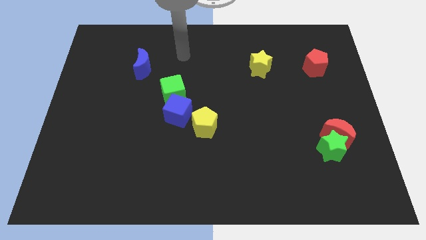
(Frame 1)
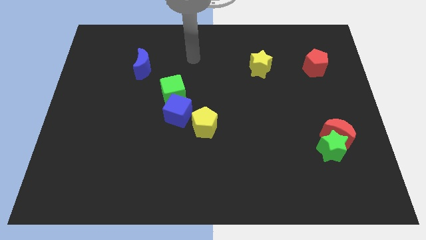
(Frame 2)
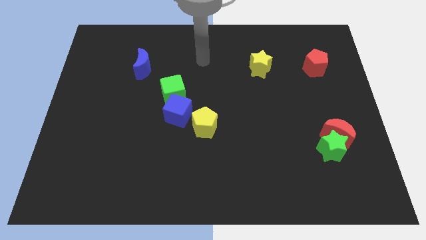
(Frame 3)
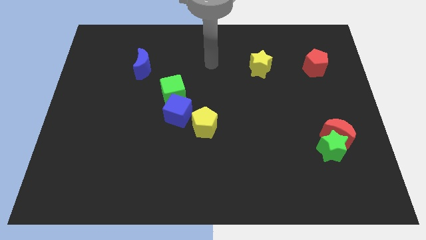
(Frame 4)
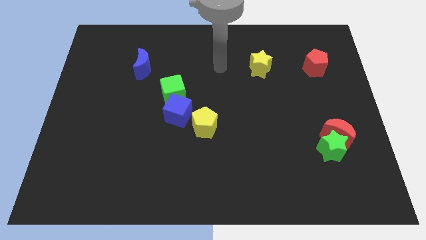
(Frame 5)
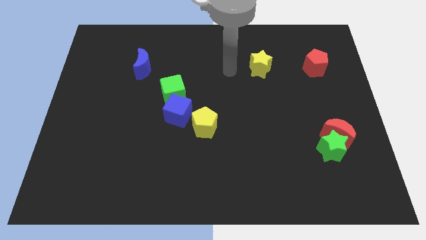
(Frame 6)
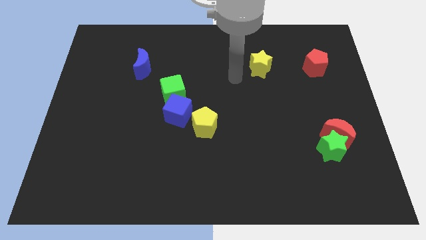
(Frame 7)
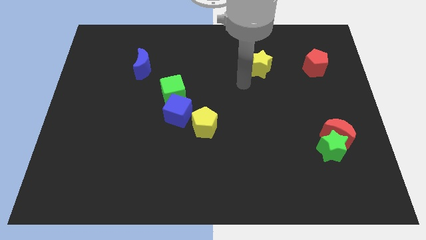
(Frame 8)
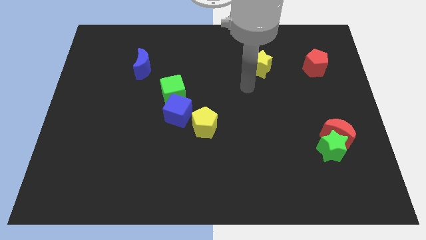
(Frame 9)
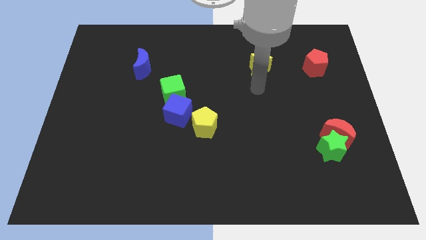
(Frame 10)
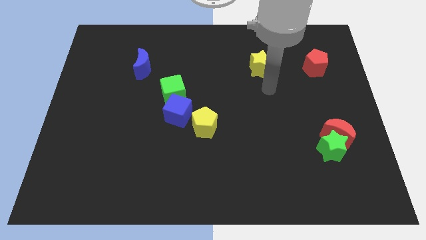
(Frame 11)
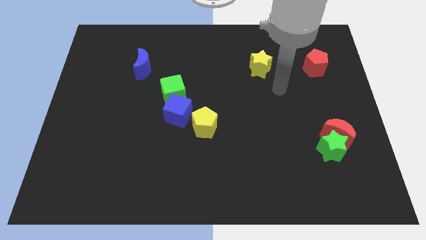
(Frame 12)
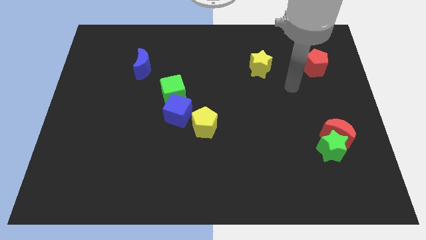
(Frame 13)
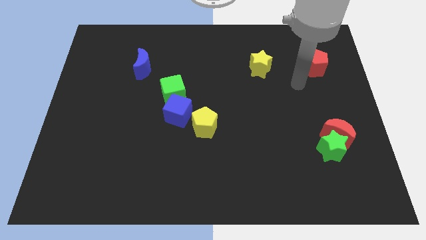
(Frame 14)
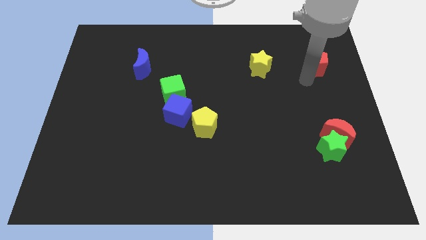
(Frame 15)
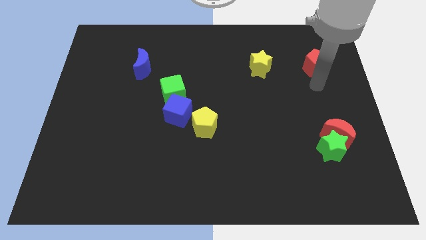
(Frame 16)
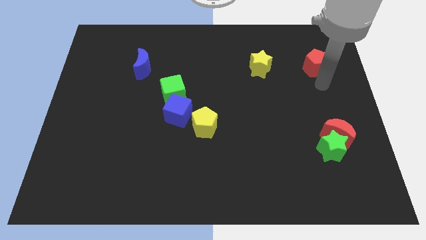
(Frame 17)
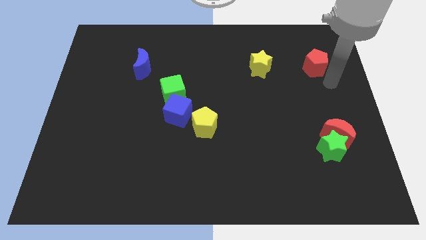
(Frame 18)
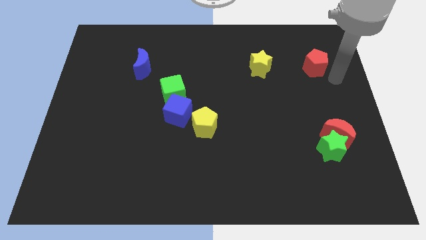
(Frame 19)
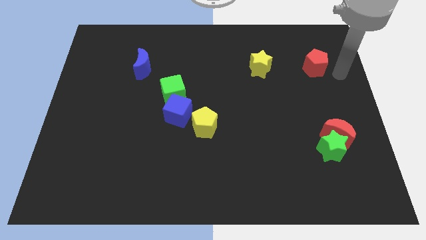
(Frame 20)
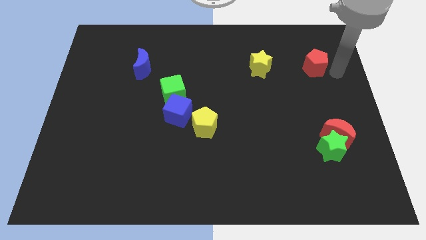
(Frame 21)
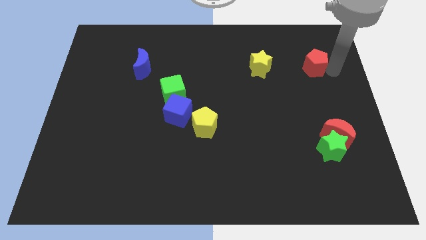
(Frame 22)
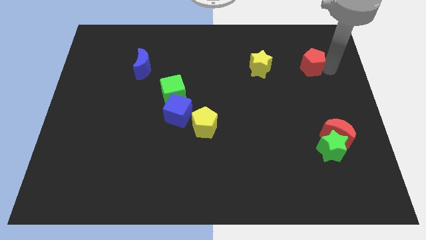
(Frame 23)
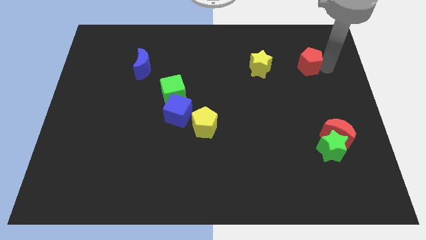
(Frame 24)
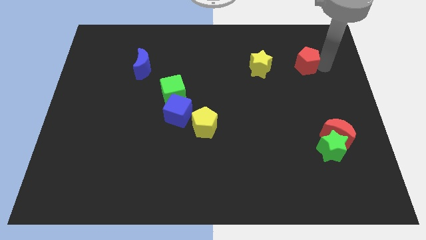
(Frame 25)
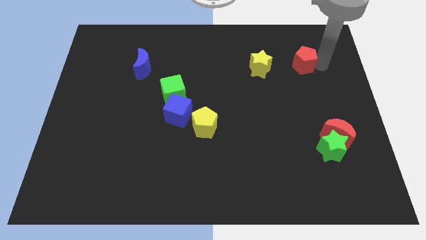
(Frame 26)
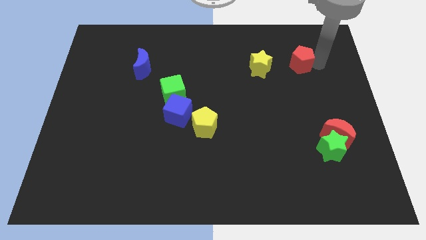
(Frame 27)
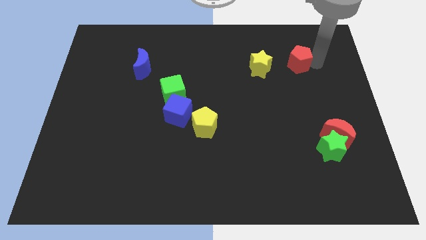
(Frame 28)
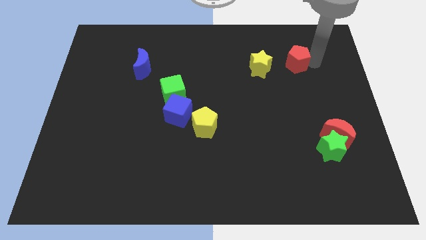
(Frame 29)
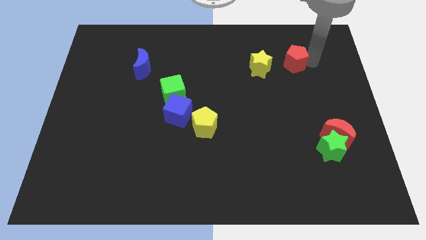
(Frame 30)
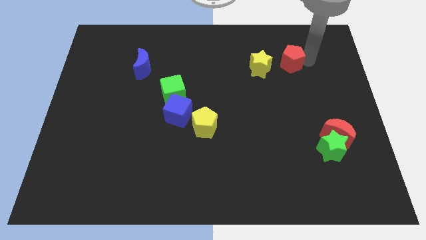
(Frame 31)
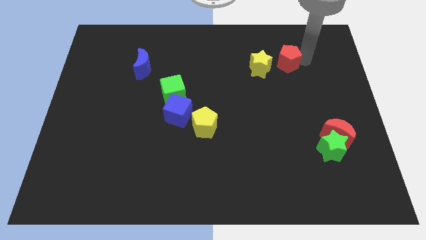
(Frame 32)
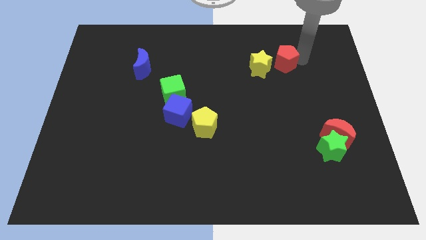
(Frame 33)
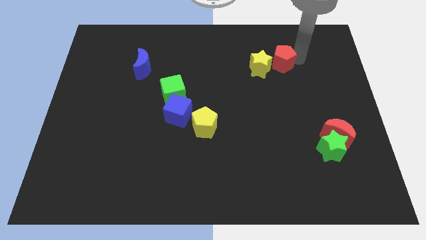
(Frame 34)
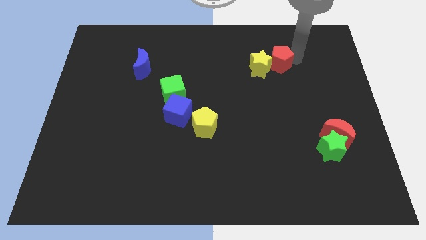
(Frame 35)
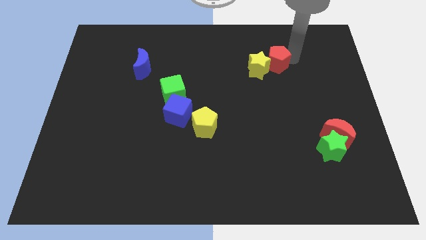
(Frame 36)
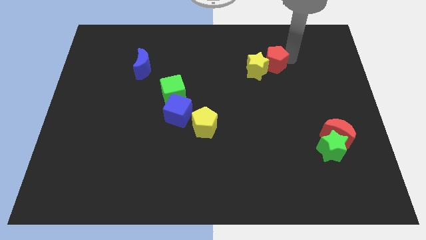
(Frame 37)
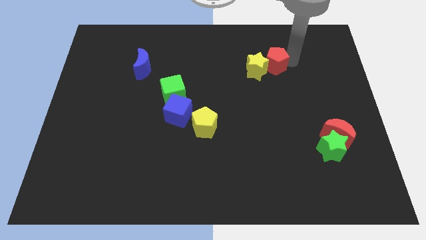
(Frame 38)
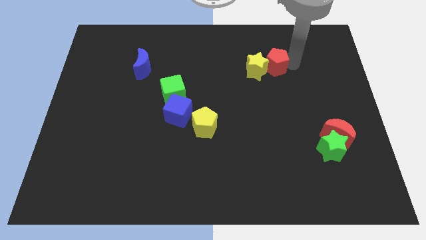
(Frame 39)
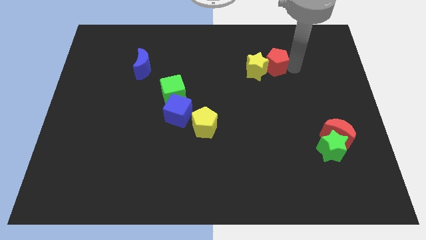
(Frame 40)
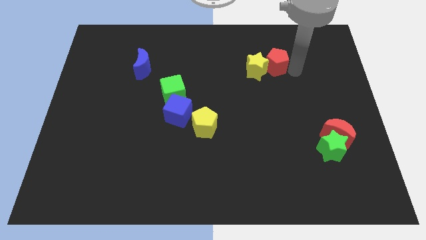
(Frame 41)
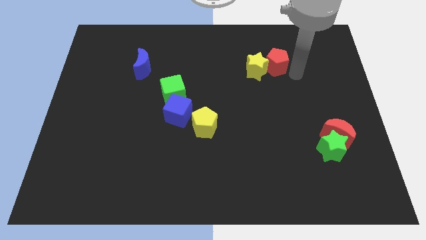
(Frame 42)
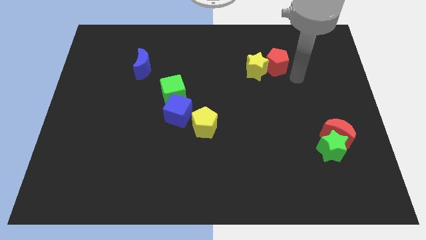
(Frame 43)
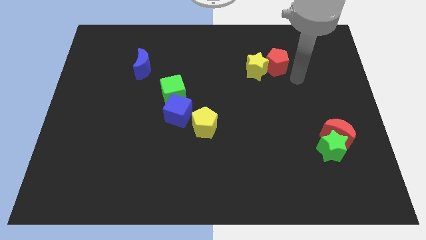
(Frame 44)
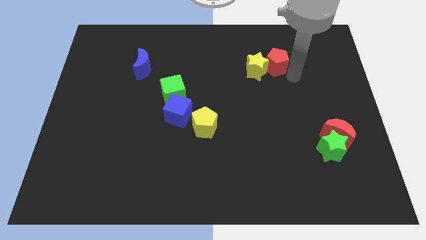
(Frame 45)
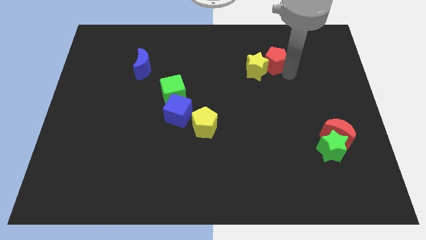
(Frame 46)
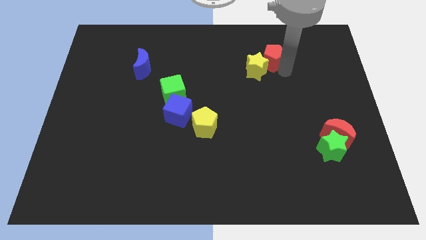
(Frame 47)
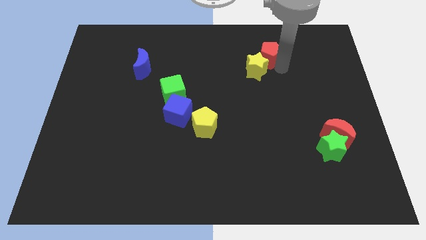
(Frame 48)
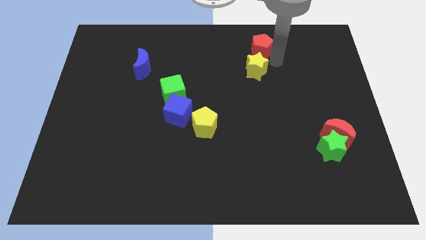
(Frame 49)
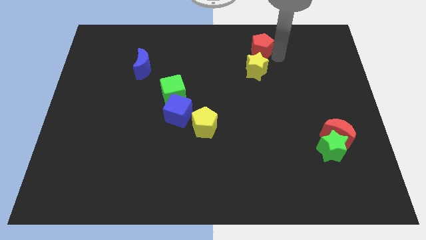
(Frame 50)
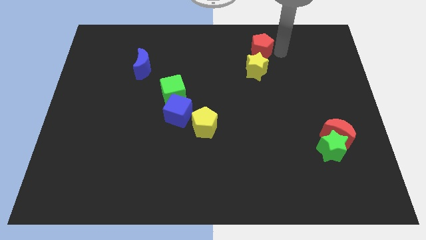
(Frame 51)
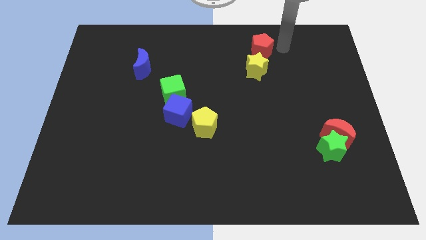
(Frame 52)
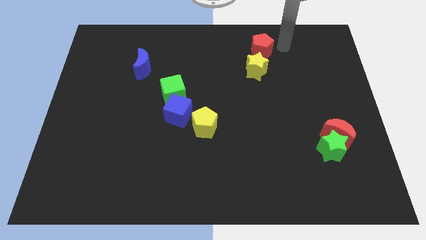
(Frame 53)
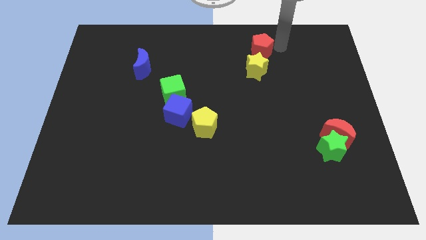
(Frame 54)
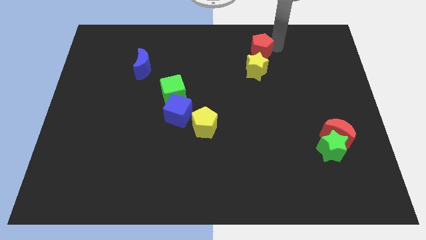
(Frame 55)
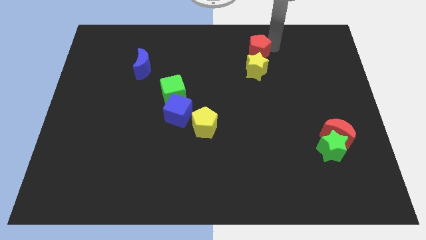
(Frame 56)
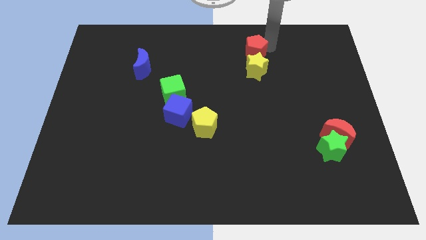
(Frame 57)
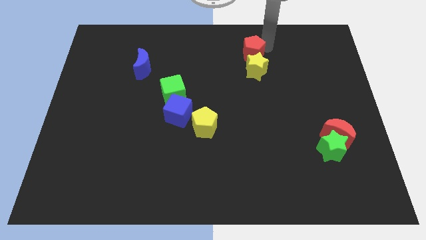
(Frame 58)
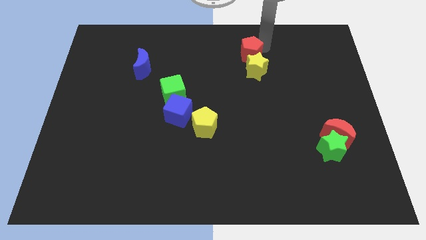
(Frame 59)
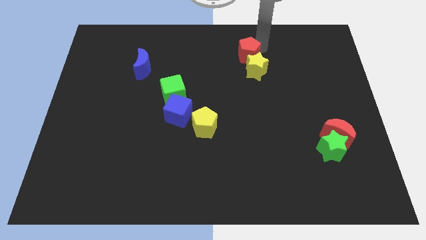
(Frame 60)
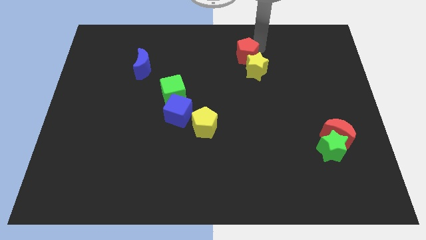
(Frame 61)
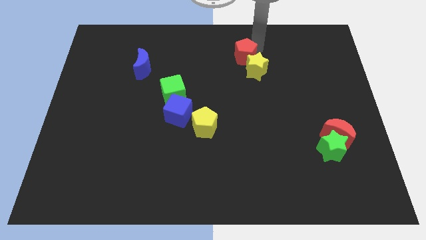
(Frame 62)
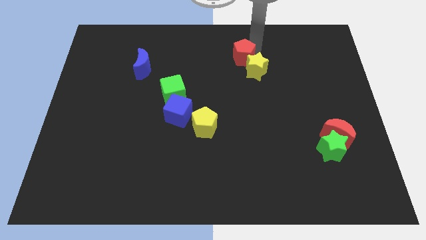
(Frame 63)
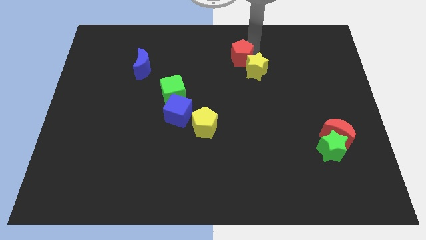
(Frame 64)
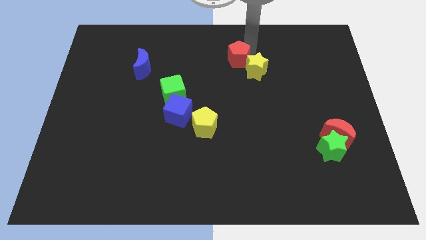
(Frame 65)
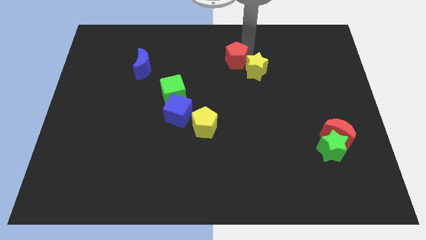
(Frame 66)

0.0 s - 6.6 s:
slide the red pentagon left

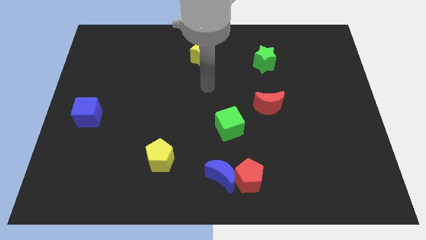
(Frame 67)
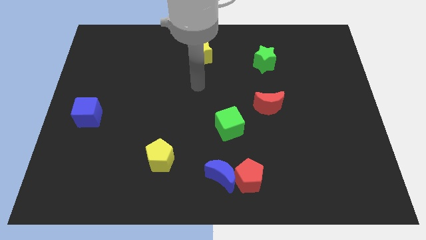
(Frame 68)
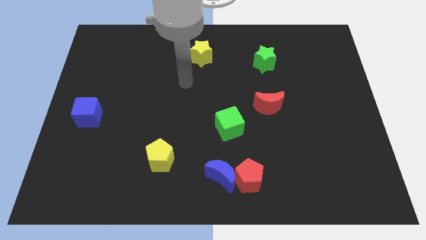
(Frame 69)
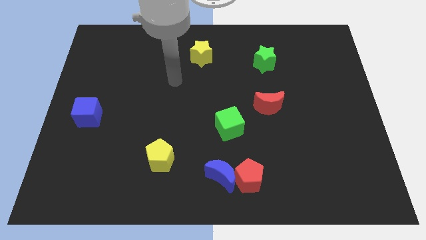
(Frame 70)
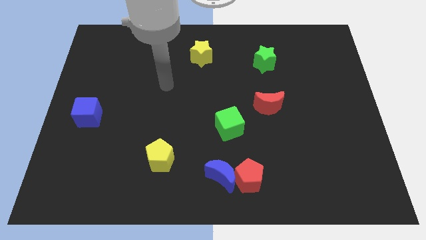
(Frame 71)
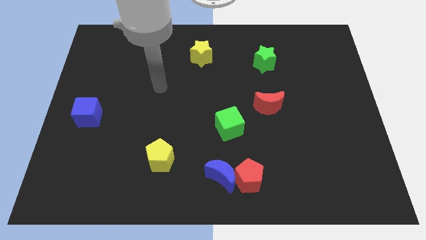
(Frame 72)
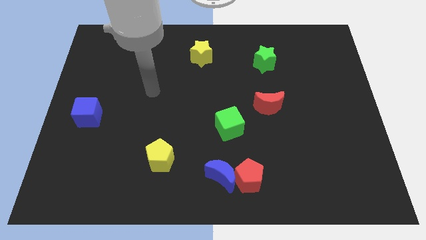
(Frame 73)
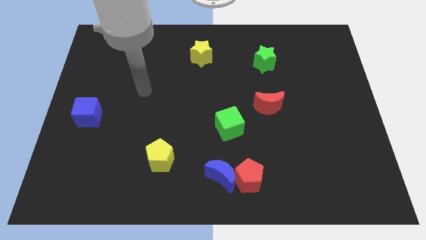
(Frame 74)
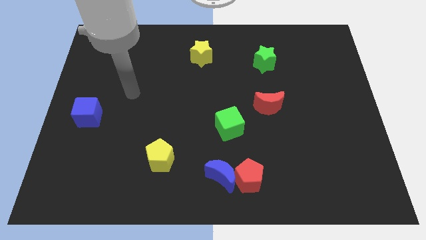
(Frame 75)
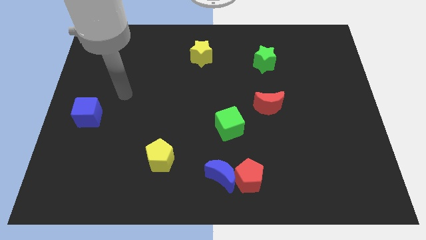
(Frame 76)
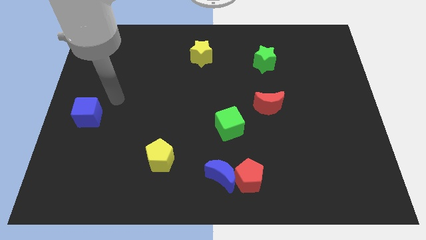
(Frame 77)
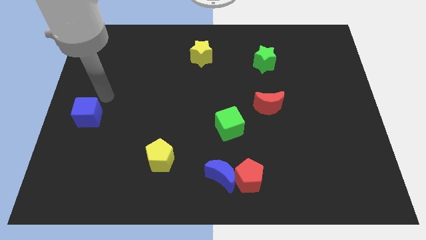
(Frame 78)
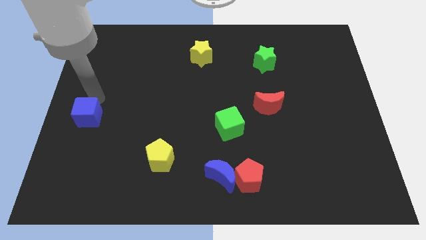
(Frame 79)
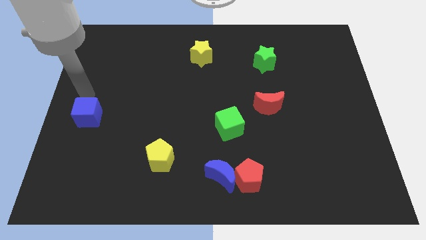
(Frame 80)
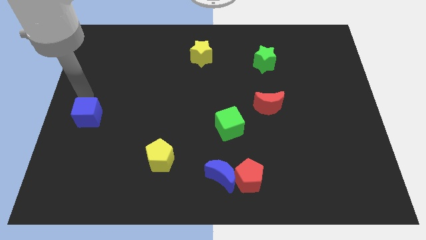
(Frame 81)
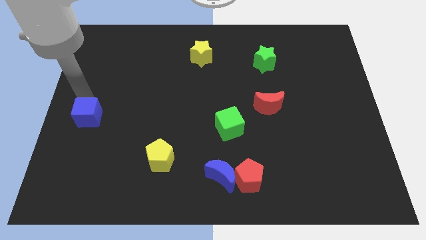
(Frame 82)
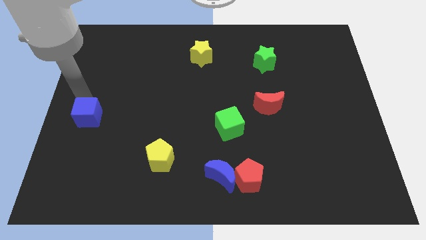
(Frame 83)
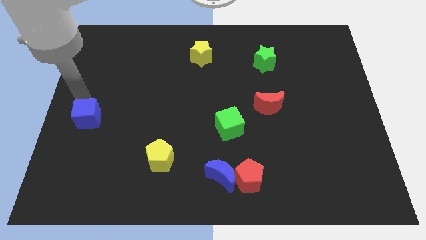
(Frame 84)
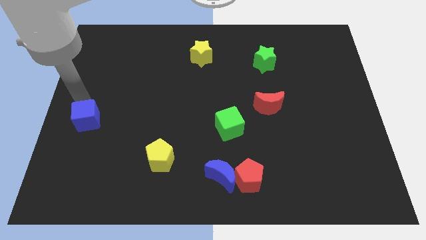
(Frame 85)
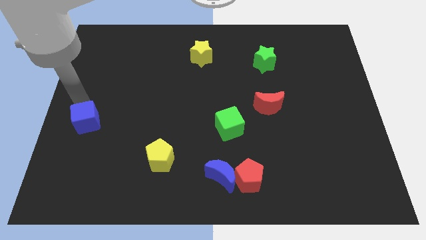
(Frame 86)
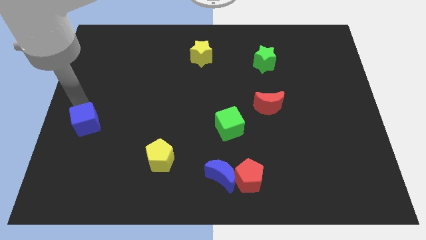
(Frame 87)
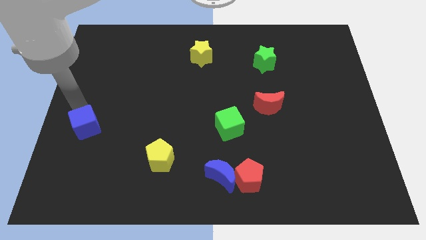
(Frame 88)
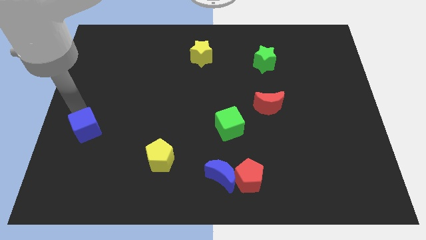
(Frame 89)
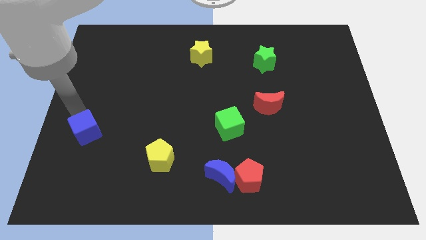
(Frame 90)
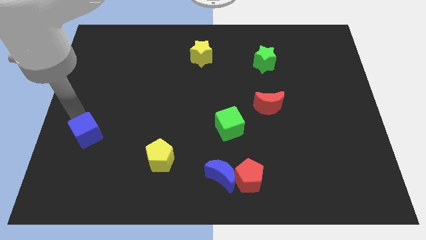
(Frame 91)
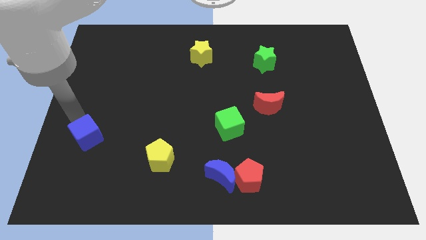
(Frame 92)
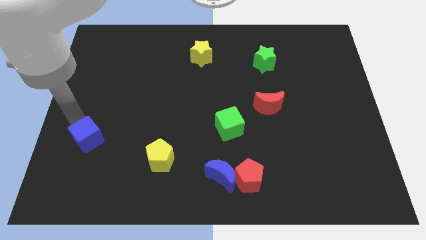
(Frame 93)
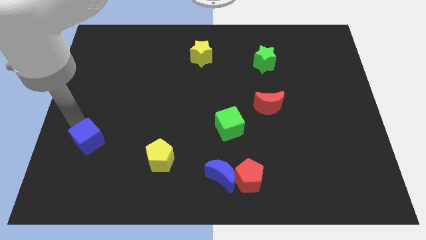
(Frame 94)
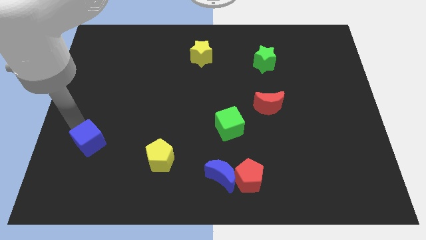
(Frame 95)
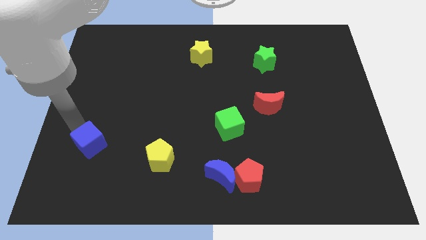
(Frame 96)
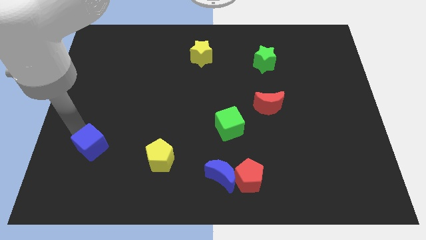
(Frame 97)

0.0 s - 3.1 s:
slide the blue cube a little bit diagonally downwards and right
